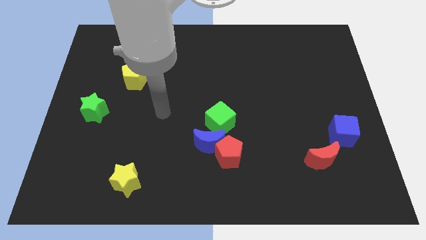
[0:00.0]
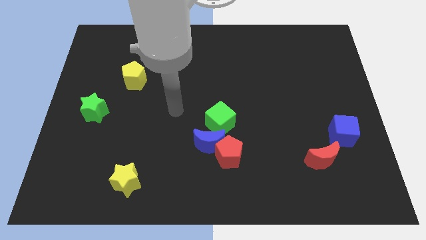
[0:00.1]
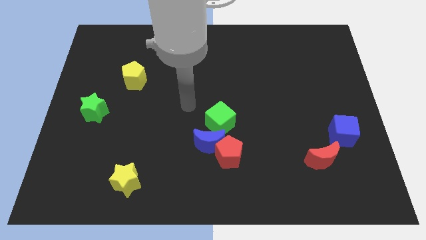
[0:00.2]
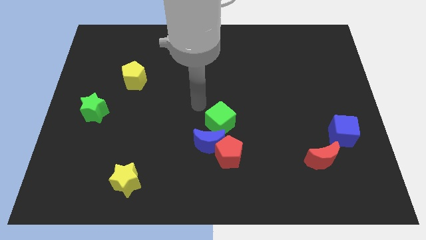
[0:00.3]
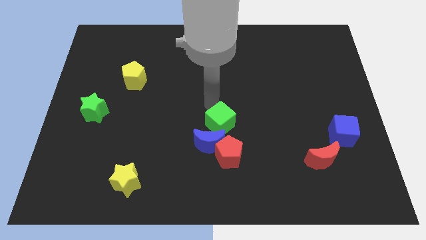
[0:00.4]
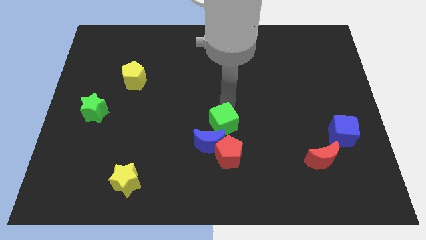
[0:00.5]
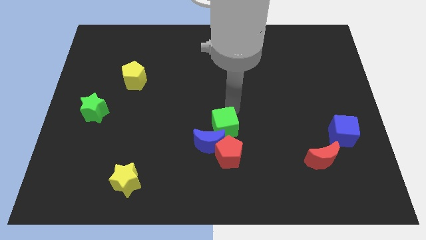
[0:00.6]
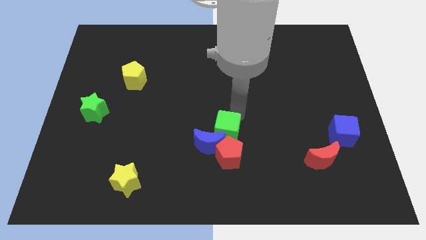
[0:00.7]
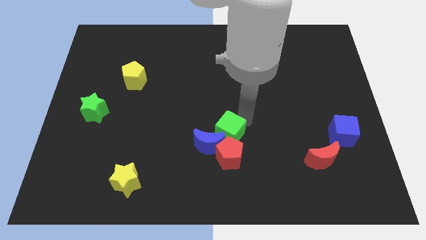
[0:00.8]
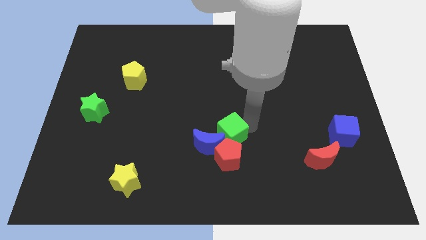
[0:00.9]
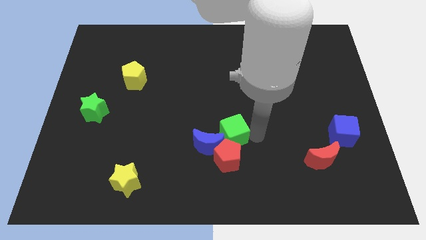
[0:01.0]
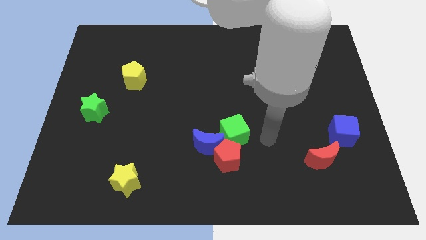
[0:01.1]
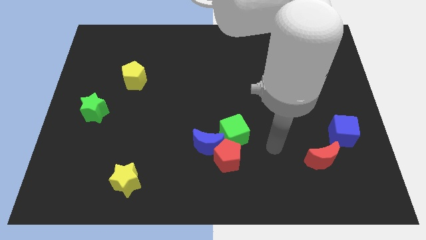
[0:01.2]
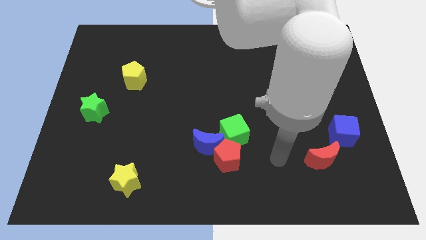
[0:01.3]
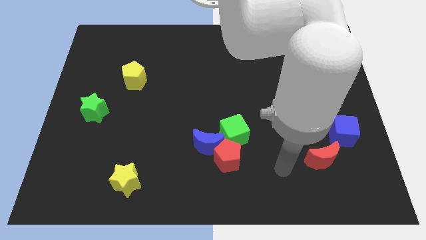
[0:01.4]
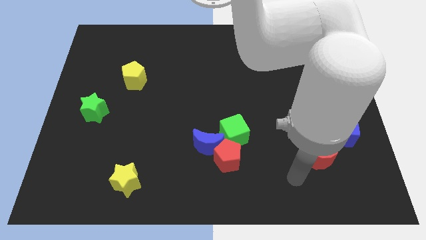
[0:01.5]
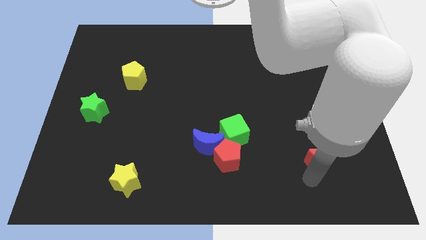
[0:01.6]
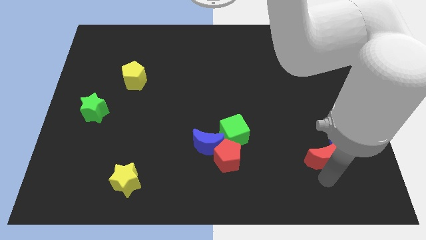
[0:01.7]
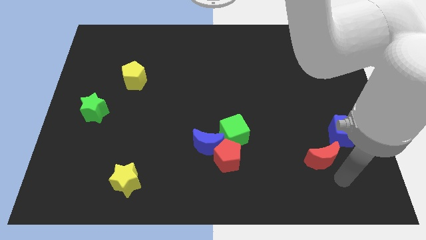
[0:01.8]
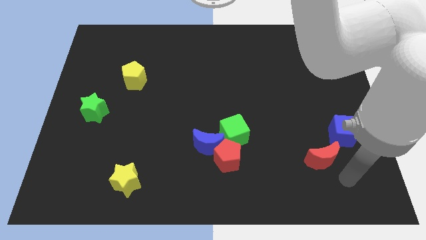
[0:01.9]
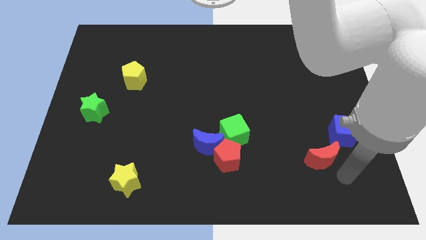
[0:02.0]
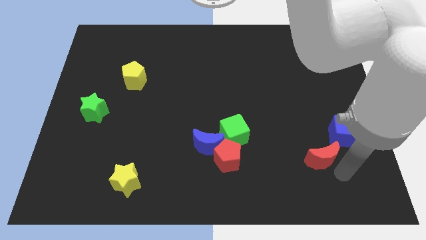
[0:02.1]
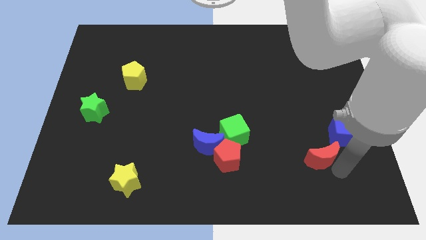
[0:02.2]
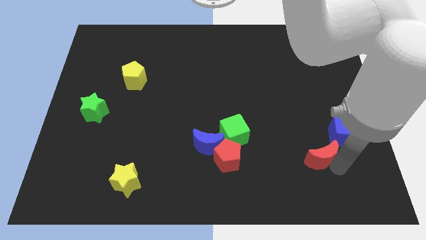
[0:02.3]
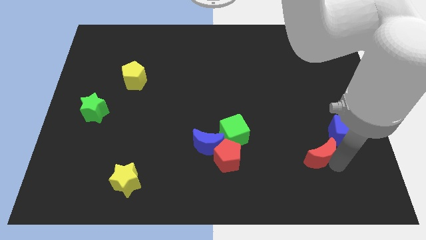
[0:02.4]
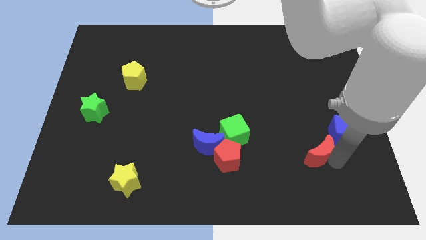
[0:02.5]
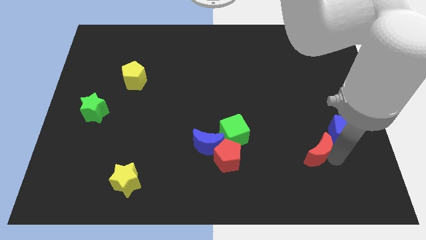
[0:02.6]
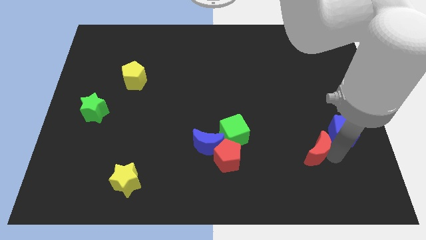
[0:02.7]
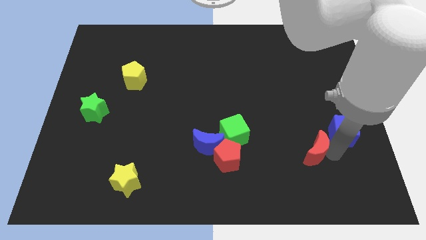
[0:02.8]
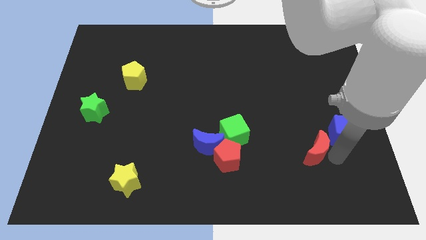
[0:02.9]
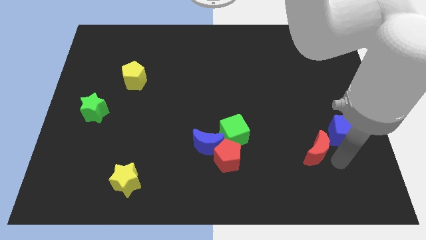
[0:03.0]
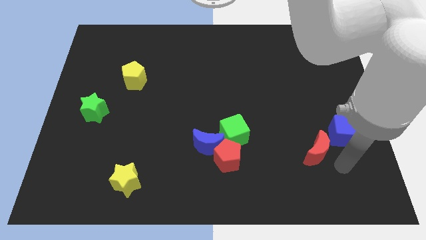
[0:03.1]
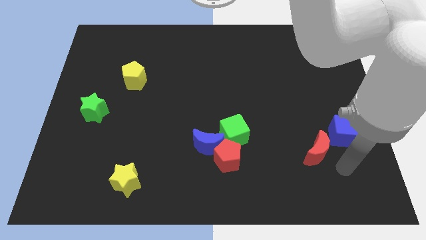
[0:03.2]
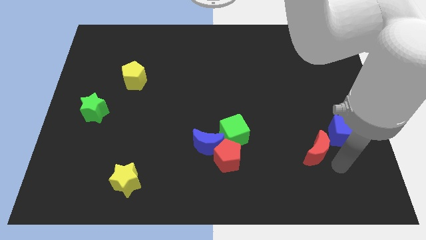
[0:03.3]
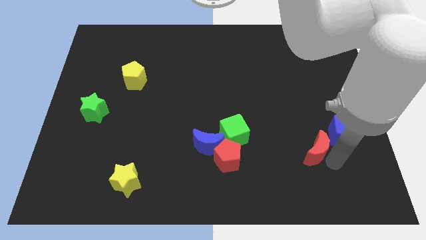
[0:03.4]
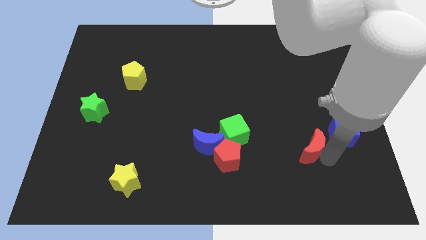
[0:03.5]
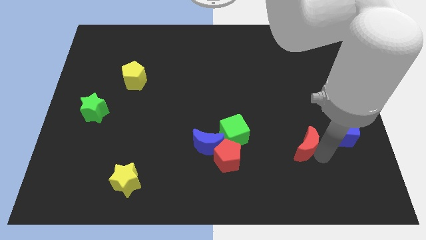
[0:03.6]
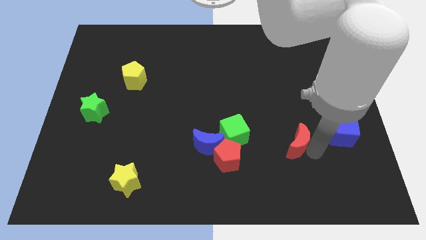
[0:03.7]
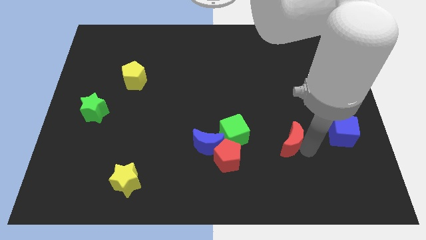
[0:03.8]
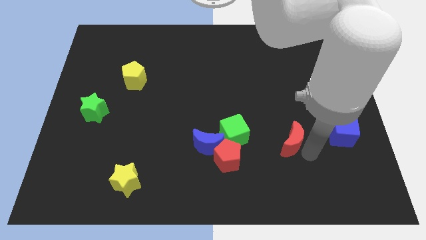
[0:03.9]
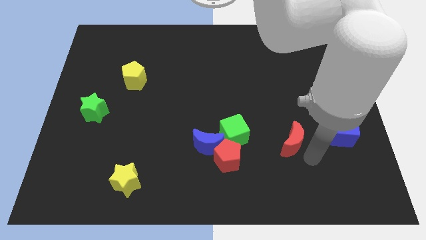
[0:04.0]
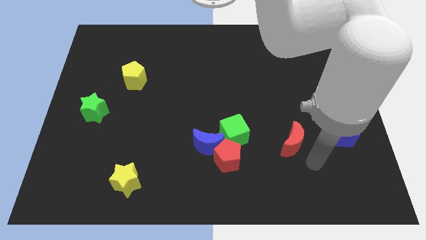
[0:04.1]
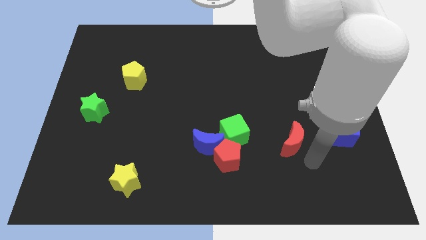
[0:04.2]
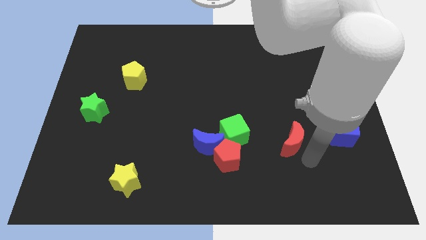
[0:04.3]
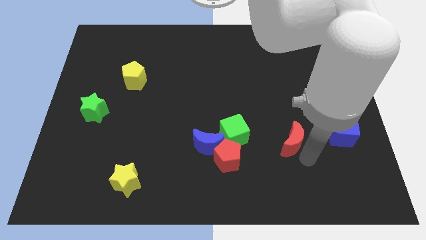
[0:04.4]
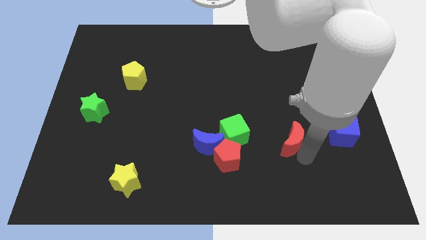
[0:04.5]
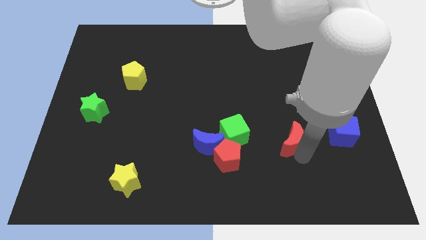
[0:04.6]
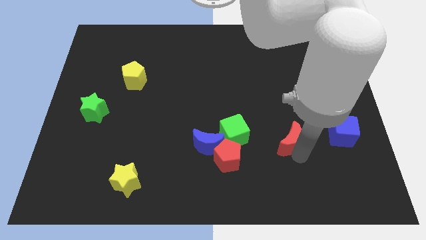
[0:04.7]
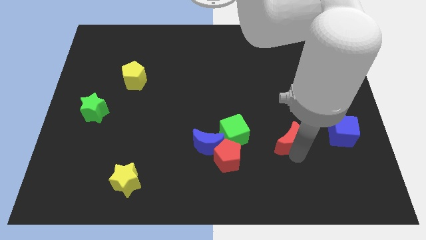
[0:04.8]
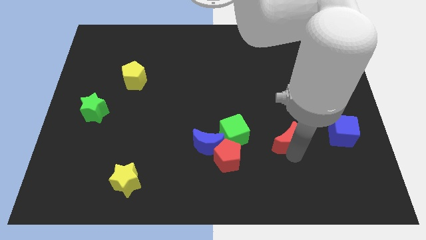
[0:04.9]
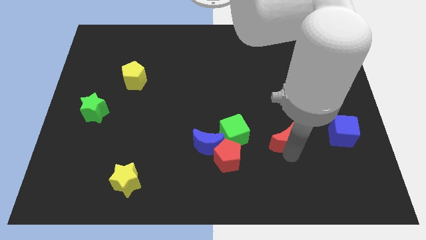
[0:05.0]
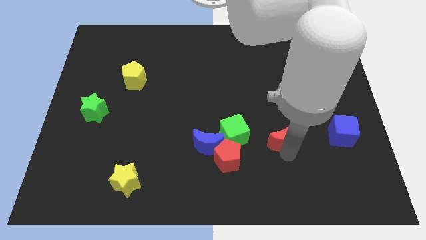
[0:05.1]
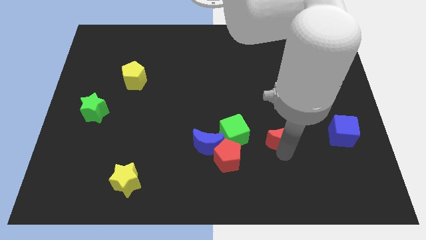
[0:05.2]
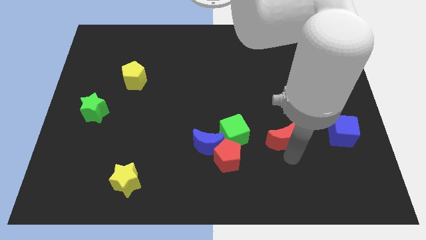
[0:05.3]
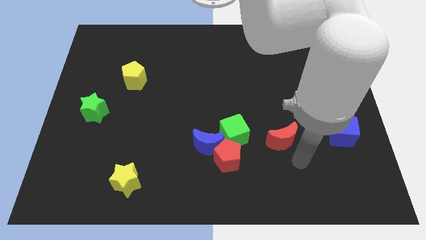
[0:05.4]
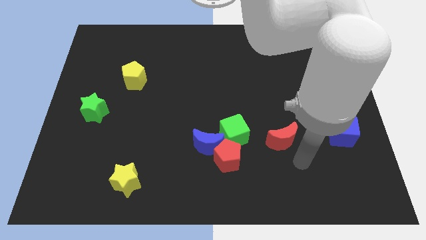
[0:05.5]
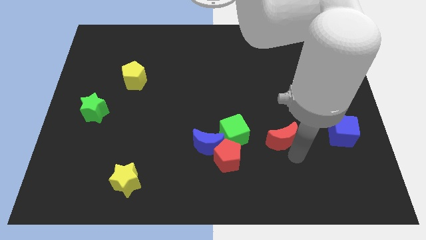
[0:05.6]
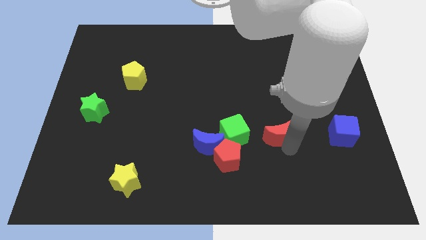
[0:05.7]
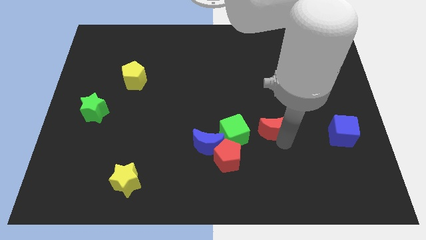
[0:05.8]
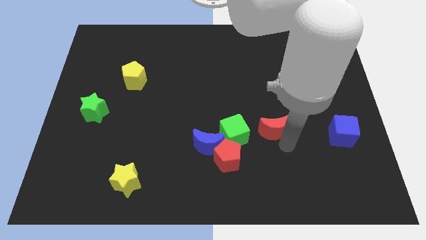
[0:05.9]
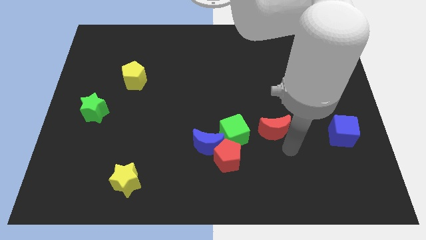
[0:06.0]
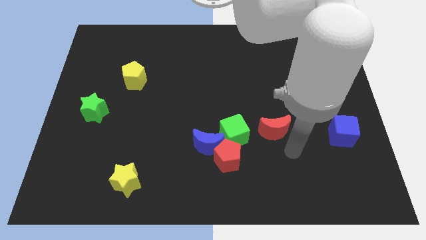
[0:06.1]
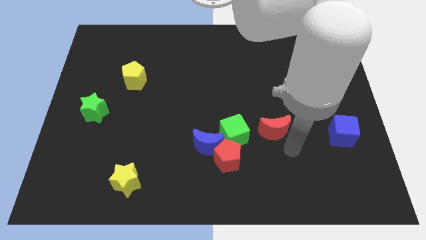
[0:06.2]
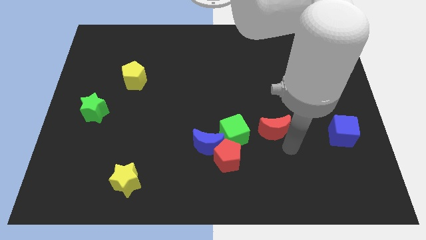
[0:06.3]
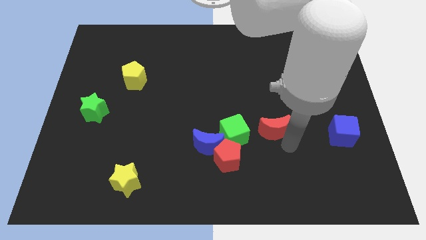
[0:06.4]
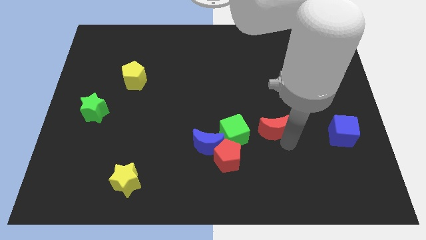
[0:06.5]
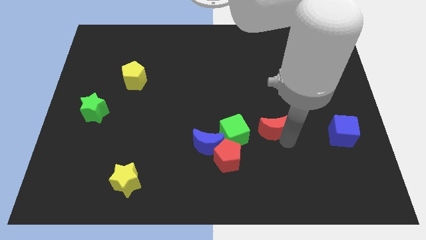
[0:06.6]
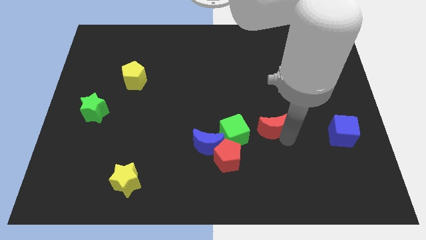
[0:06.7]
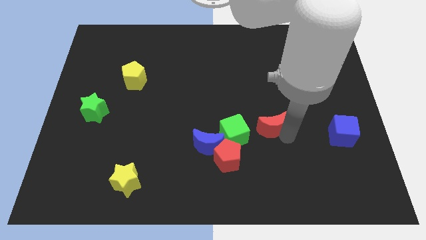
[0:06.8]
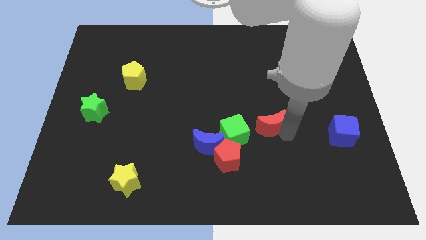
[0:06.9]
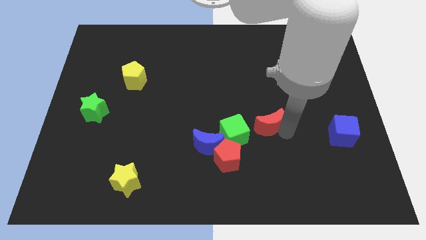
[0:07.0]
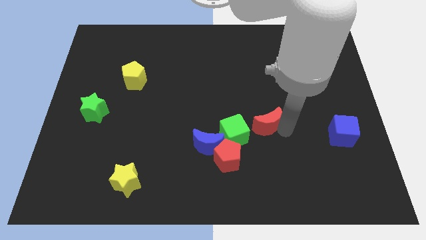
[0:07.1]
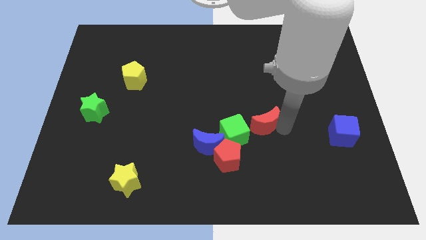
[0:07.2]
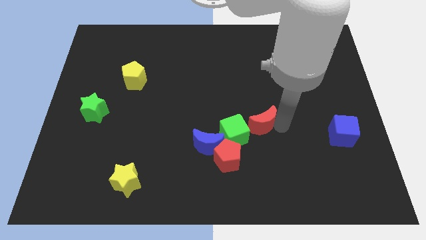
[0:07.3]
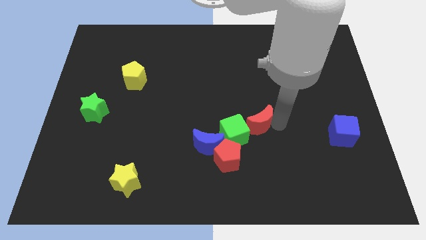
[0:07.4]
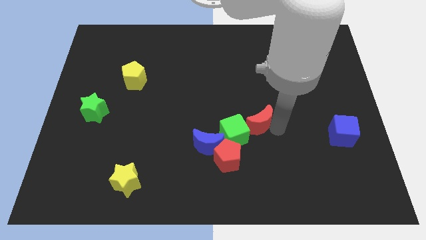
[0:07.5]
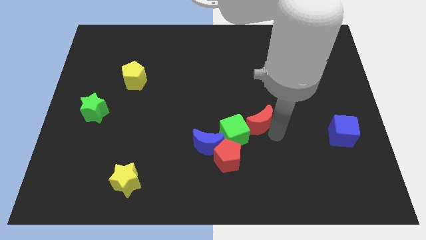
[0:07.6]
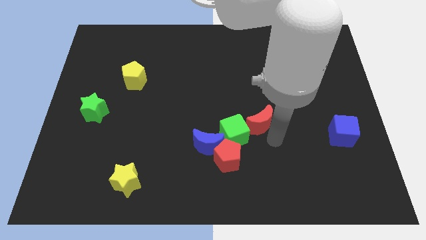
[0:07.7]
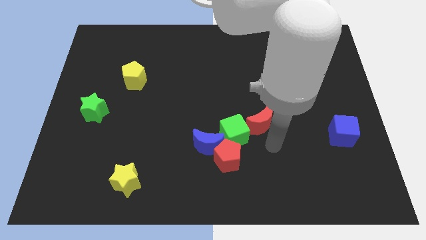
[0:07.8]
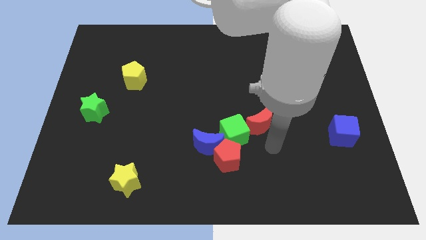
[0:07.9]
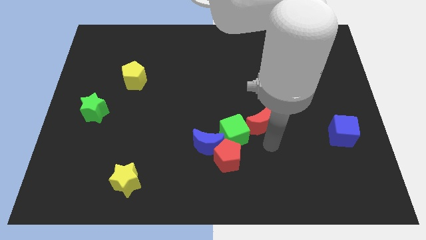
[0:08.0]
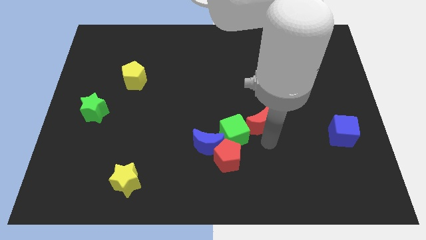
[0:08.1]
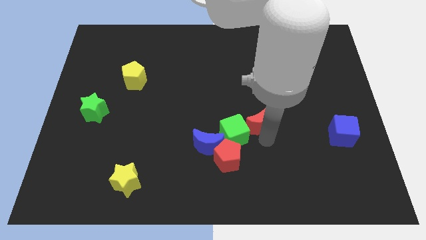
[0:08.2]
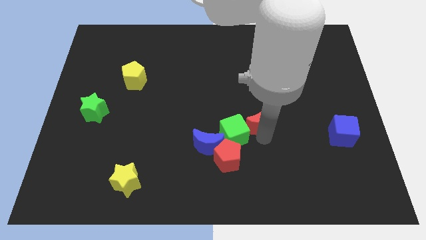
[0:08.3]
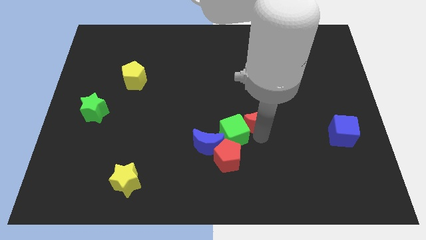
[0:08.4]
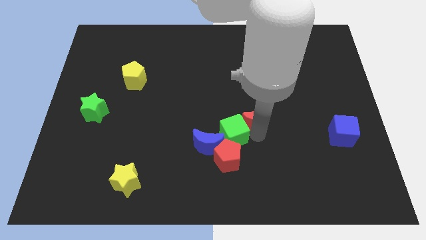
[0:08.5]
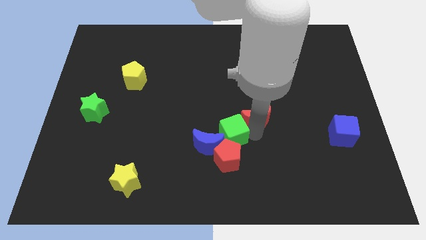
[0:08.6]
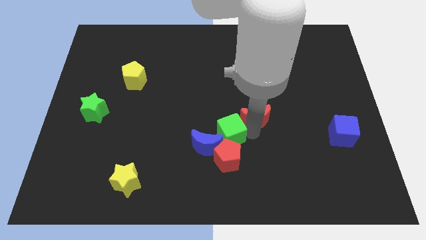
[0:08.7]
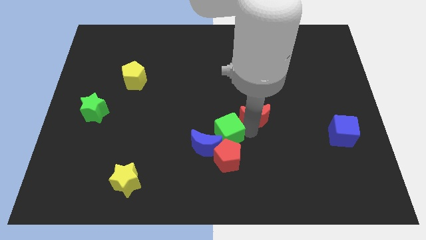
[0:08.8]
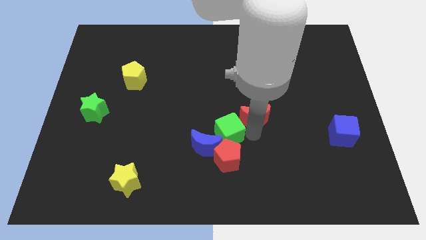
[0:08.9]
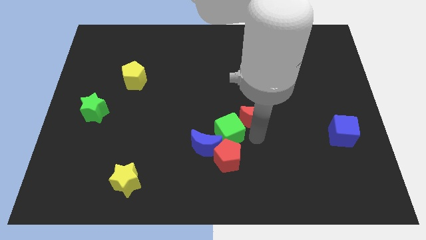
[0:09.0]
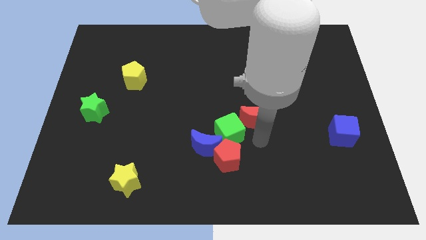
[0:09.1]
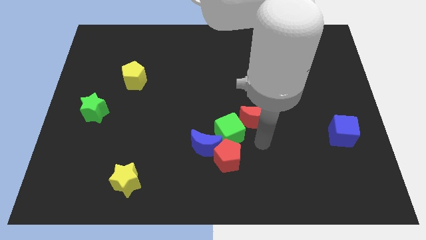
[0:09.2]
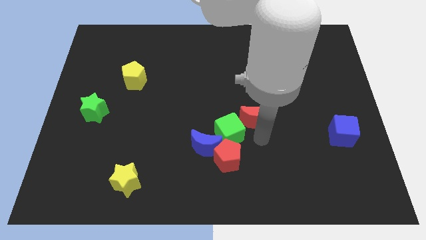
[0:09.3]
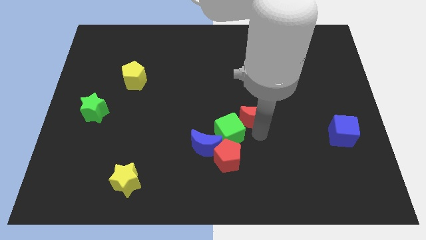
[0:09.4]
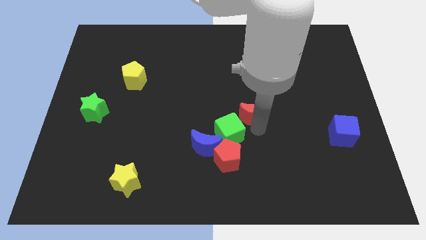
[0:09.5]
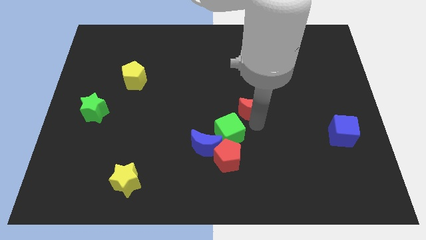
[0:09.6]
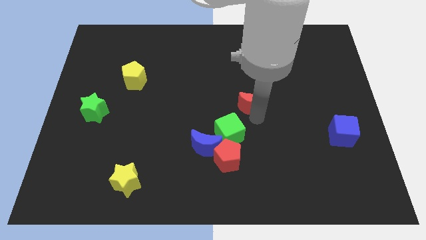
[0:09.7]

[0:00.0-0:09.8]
move the red moon up and to the left
